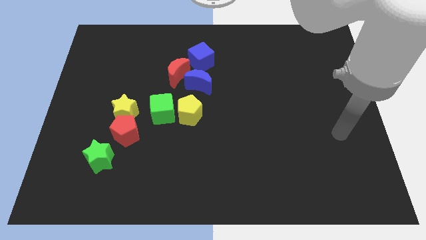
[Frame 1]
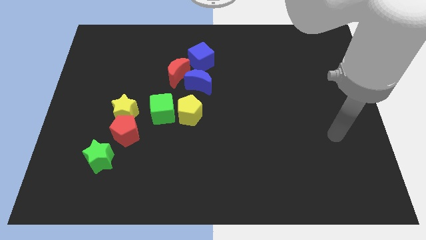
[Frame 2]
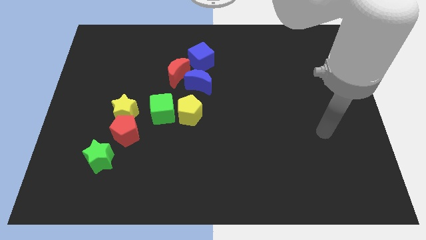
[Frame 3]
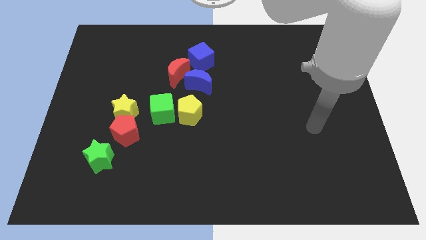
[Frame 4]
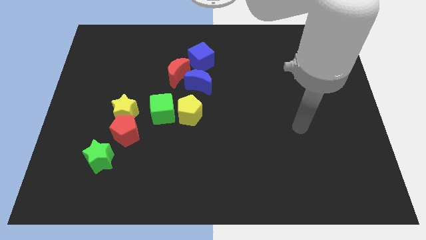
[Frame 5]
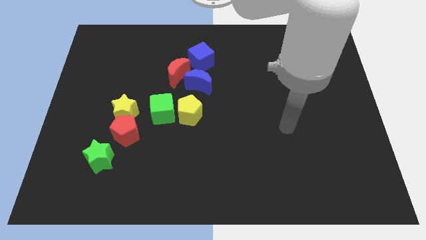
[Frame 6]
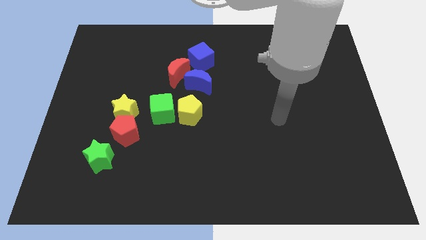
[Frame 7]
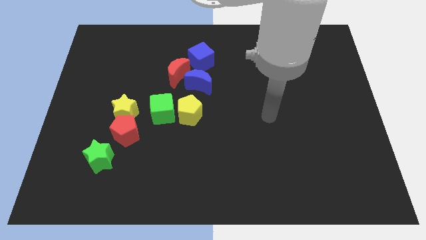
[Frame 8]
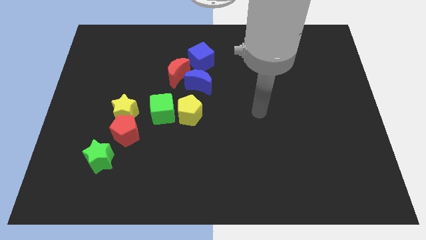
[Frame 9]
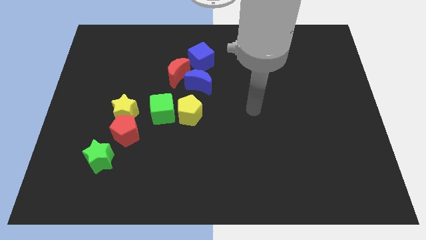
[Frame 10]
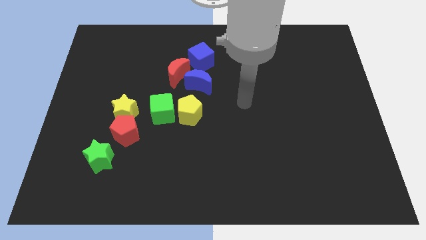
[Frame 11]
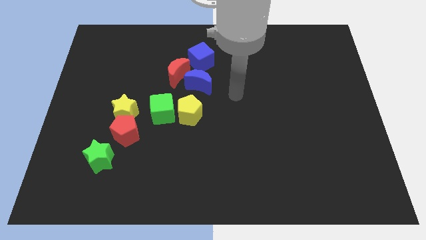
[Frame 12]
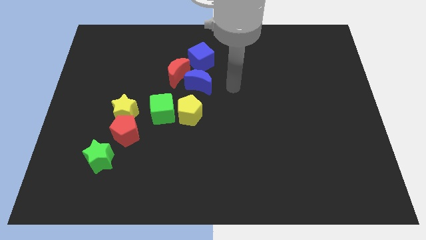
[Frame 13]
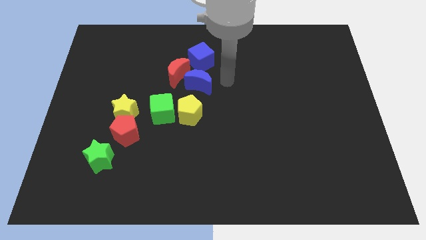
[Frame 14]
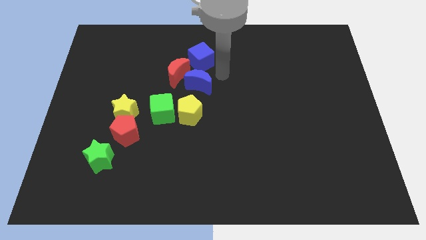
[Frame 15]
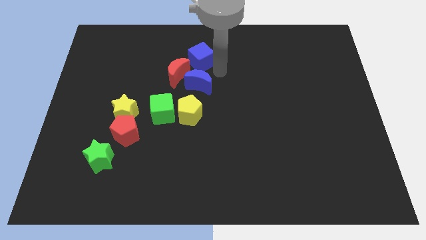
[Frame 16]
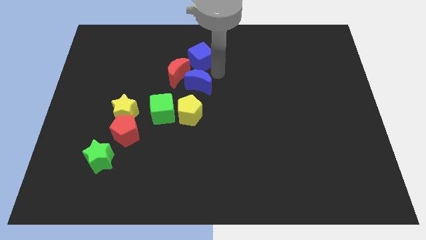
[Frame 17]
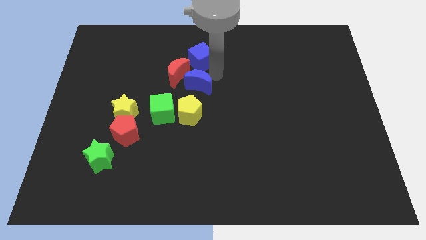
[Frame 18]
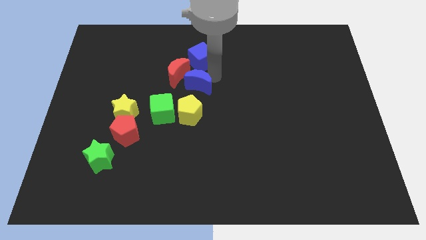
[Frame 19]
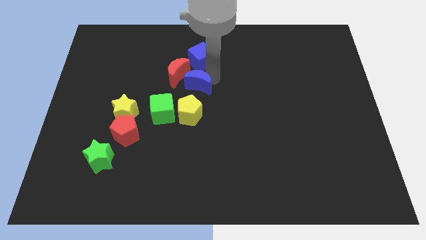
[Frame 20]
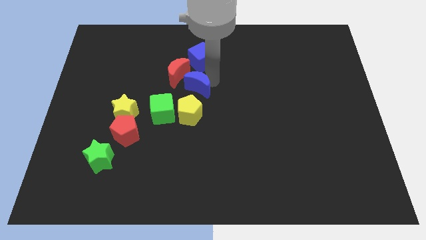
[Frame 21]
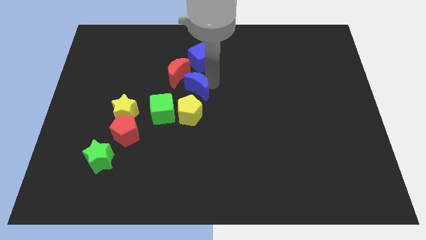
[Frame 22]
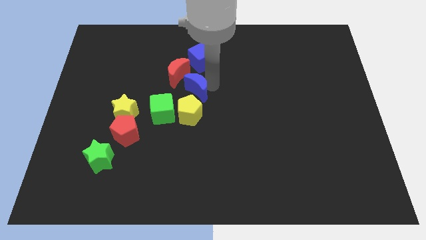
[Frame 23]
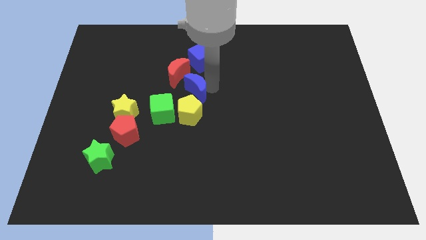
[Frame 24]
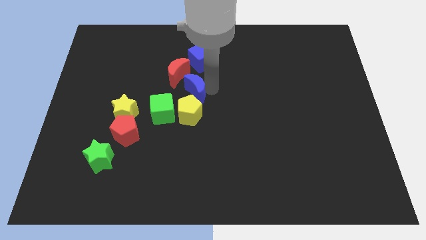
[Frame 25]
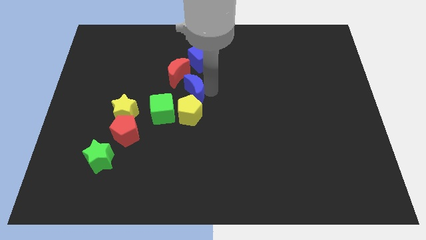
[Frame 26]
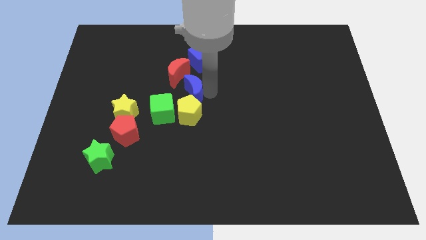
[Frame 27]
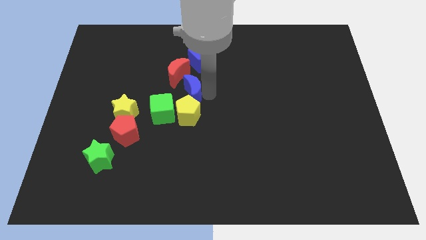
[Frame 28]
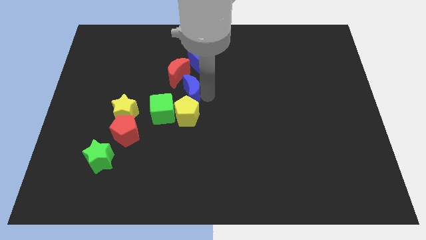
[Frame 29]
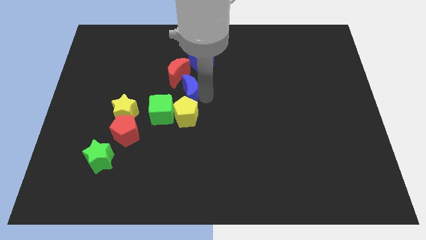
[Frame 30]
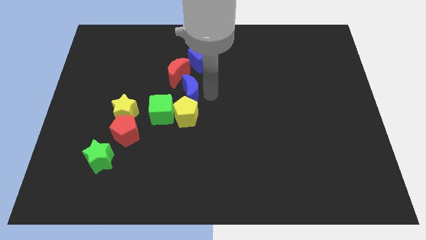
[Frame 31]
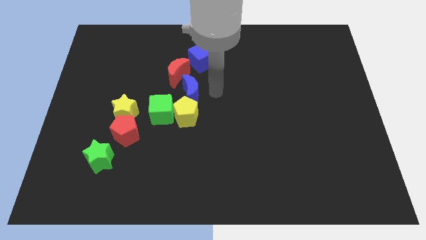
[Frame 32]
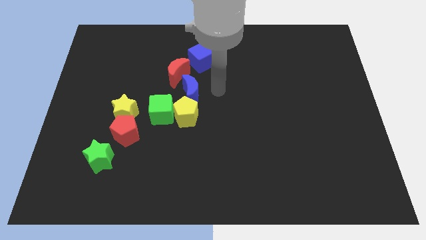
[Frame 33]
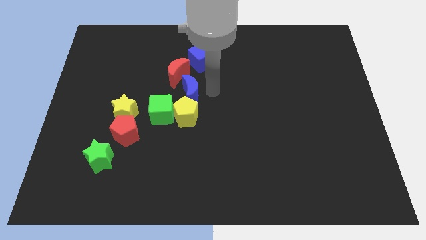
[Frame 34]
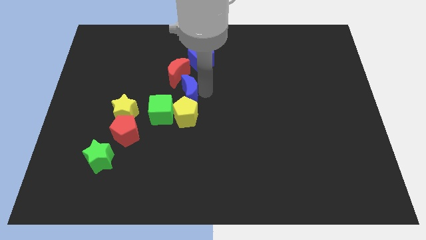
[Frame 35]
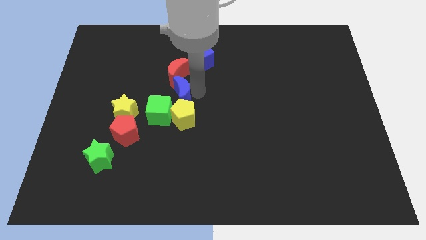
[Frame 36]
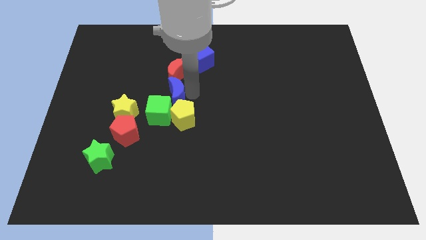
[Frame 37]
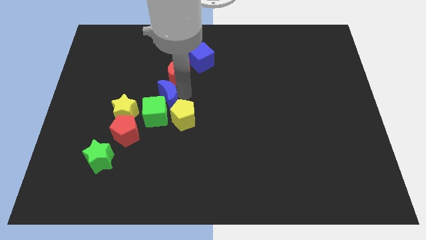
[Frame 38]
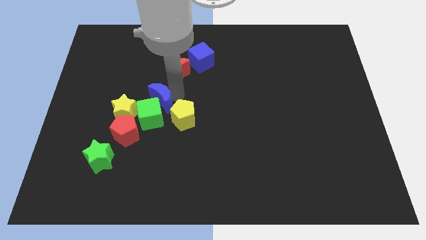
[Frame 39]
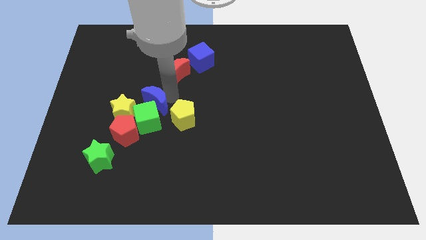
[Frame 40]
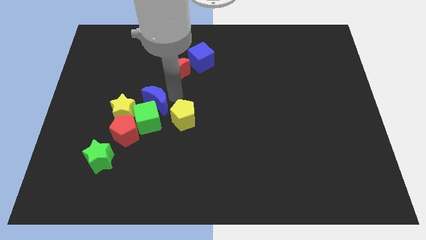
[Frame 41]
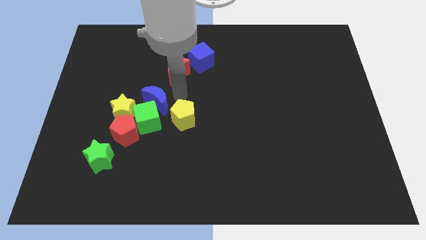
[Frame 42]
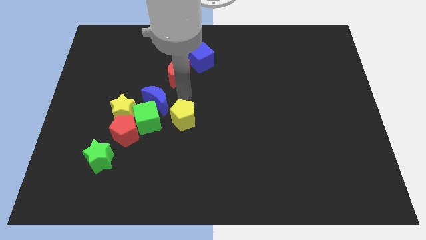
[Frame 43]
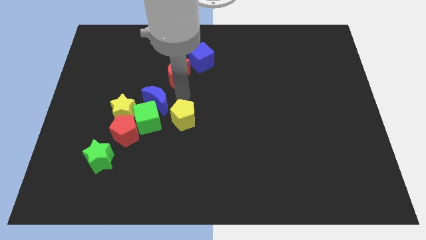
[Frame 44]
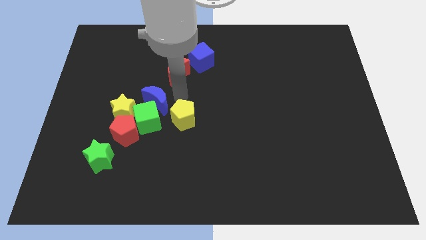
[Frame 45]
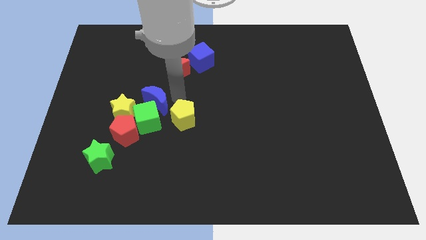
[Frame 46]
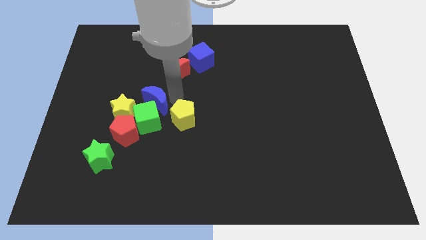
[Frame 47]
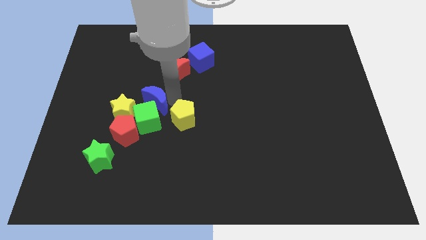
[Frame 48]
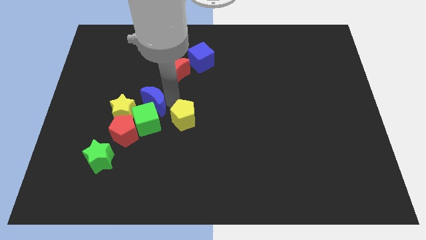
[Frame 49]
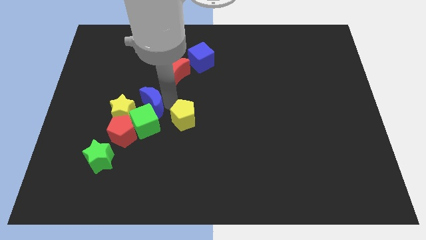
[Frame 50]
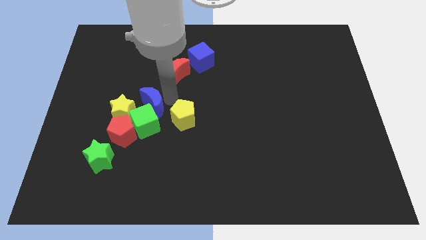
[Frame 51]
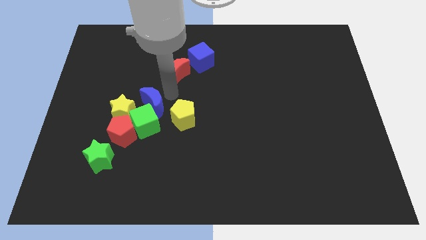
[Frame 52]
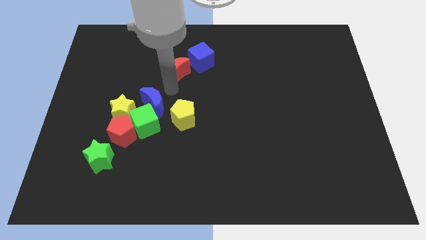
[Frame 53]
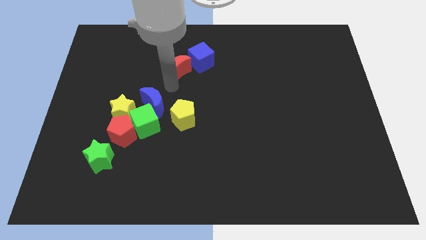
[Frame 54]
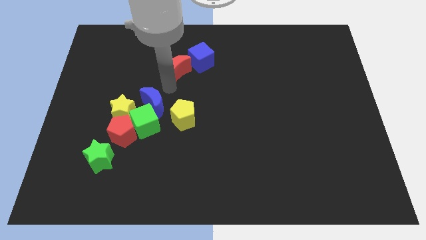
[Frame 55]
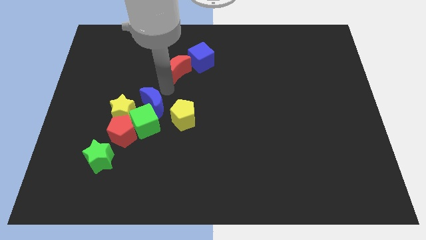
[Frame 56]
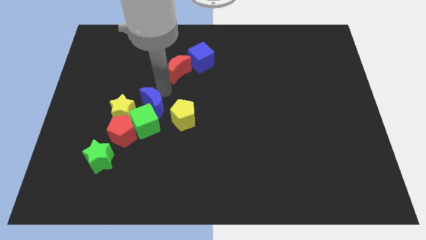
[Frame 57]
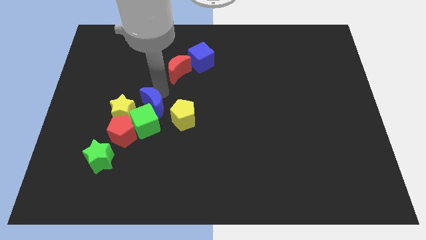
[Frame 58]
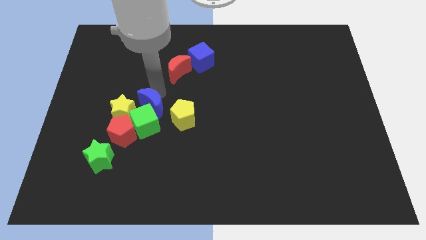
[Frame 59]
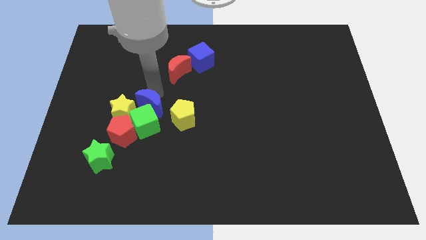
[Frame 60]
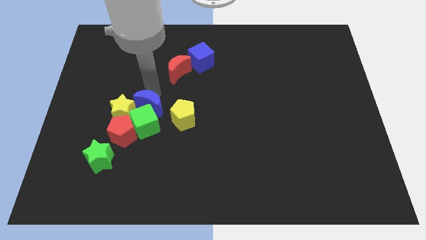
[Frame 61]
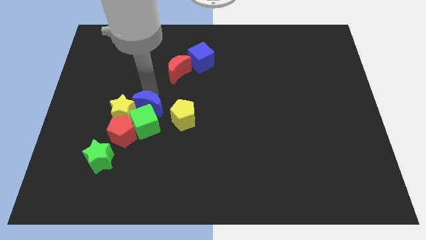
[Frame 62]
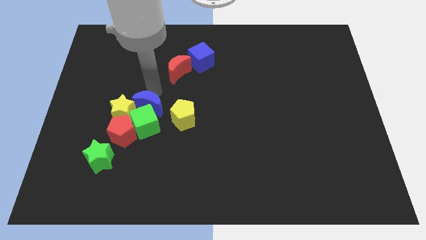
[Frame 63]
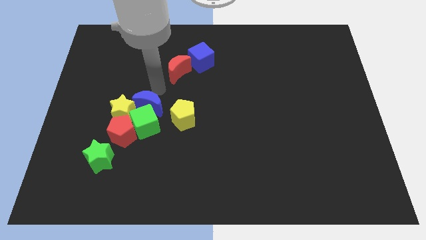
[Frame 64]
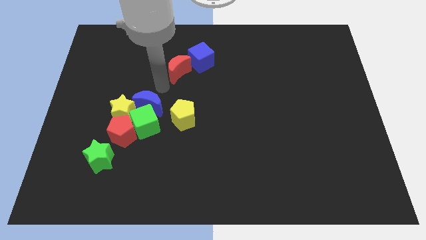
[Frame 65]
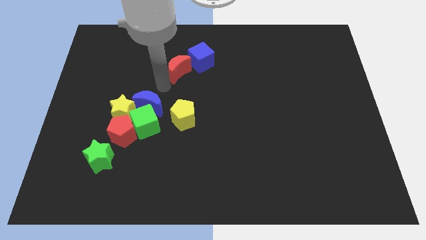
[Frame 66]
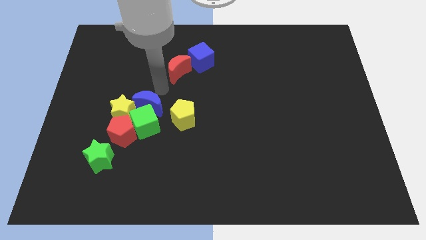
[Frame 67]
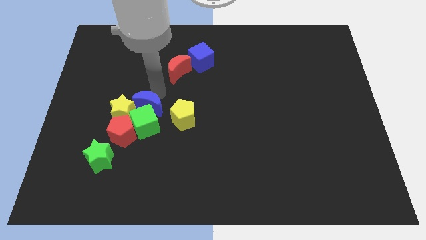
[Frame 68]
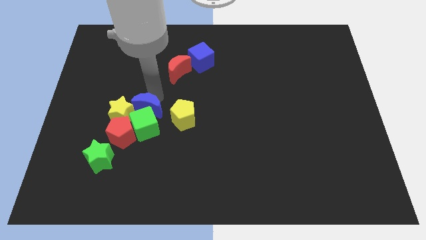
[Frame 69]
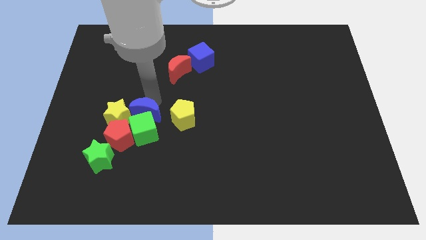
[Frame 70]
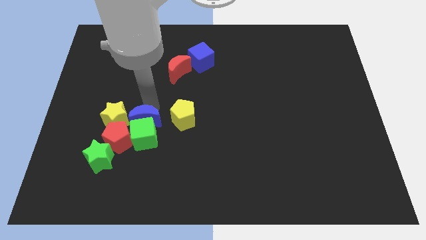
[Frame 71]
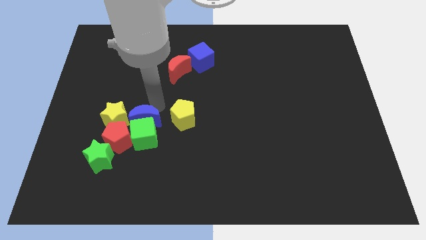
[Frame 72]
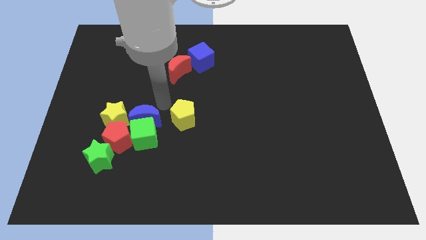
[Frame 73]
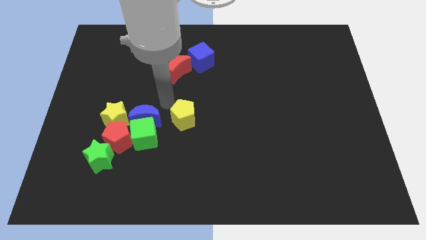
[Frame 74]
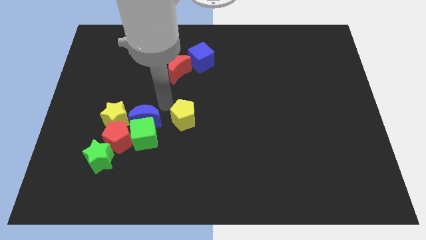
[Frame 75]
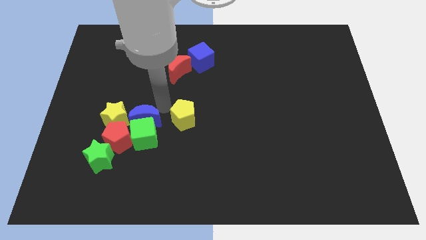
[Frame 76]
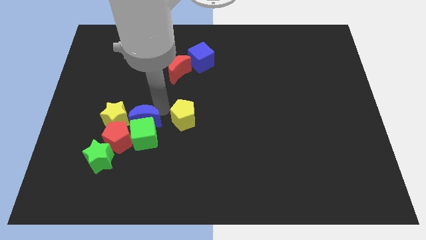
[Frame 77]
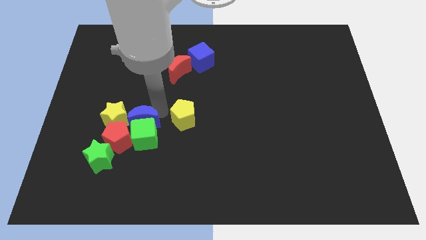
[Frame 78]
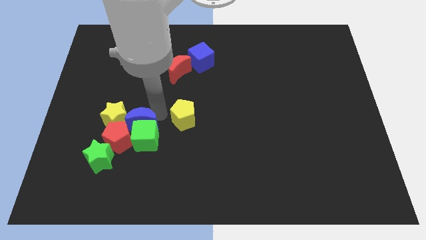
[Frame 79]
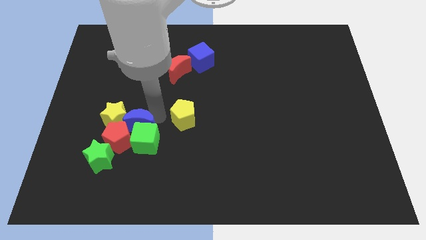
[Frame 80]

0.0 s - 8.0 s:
put the blue moon close to the red pentagon
